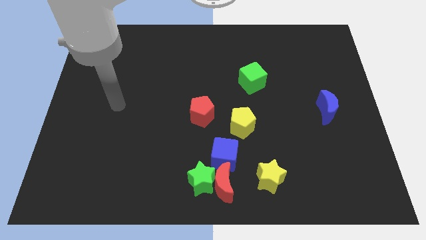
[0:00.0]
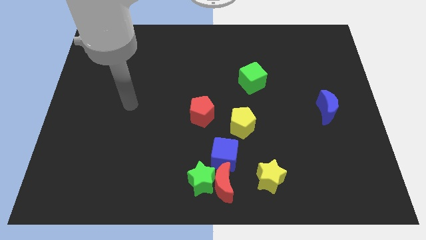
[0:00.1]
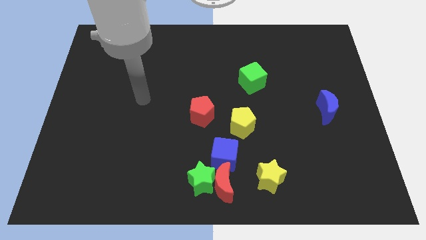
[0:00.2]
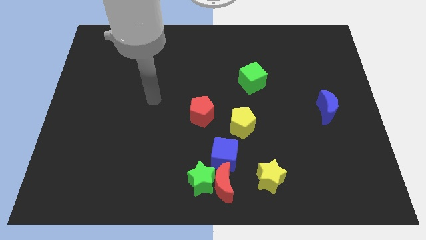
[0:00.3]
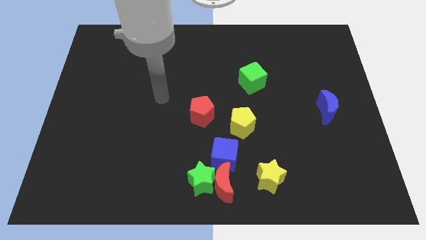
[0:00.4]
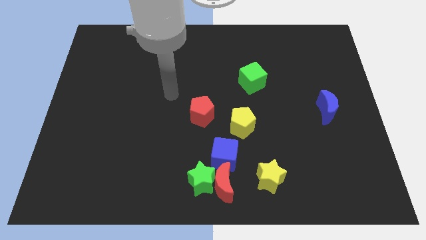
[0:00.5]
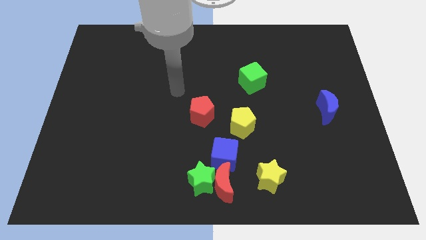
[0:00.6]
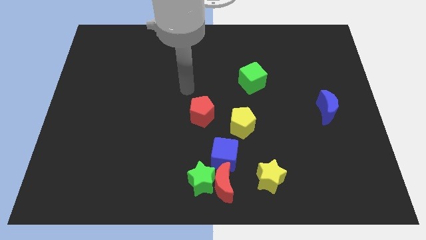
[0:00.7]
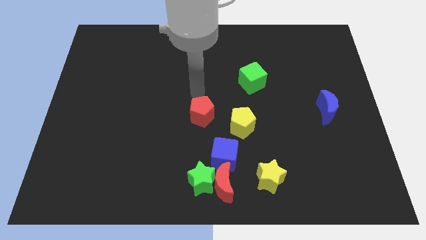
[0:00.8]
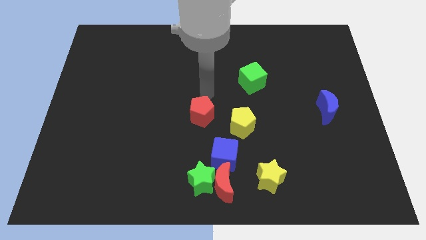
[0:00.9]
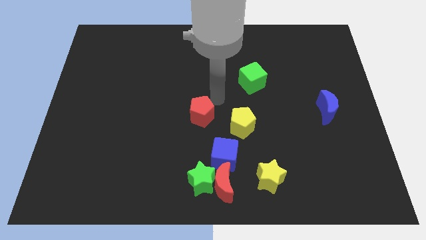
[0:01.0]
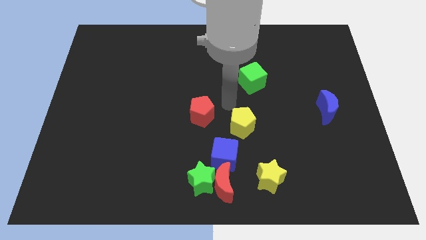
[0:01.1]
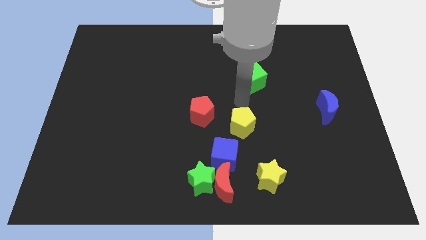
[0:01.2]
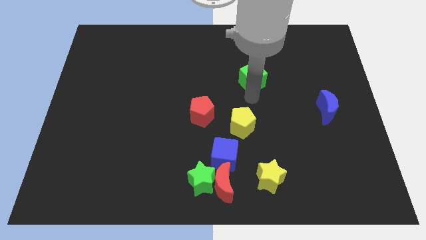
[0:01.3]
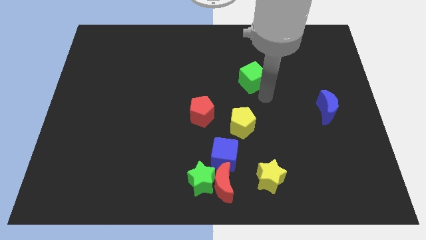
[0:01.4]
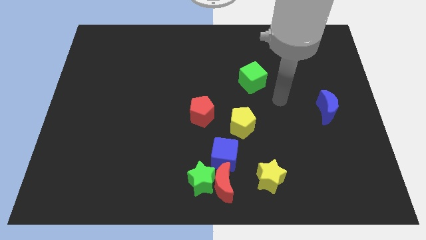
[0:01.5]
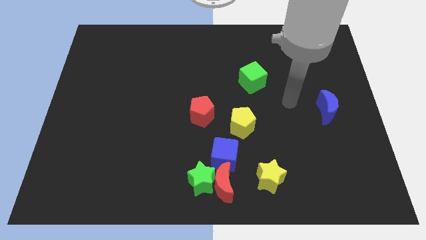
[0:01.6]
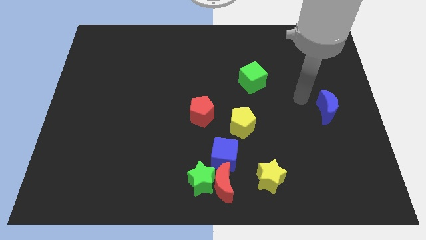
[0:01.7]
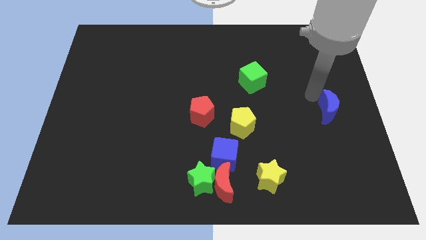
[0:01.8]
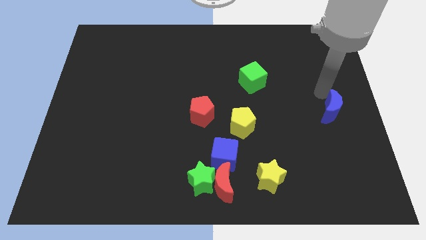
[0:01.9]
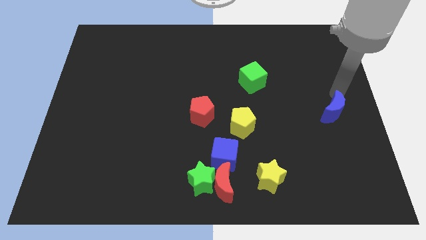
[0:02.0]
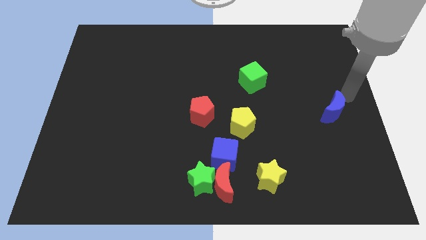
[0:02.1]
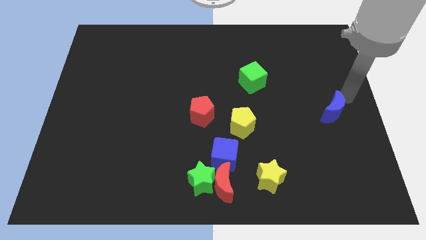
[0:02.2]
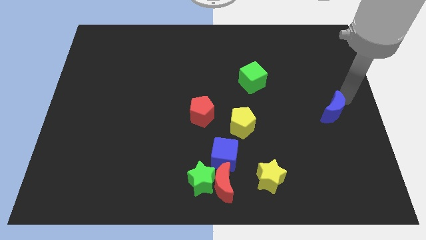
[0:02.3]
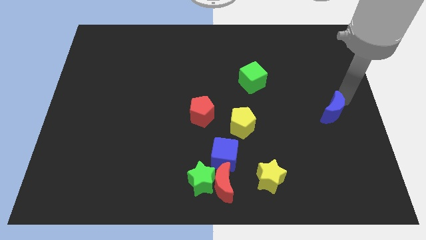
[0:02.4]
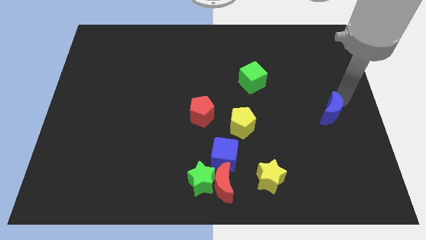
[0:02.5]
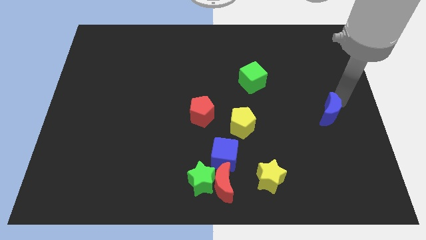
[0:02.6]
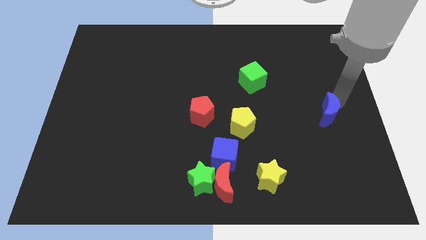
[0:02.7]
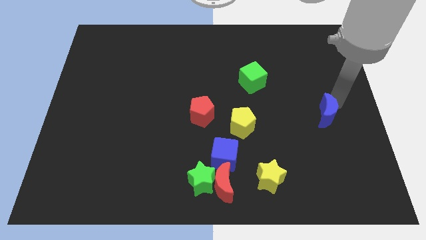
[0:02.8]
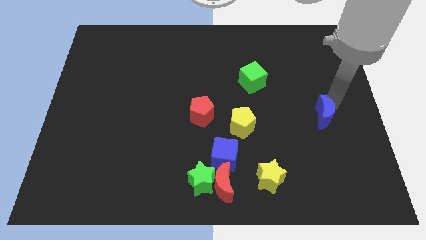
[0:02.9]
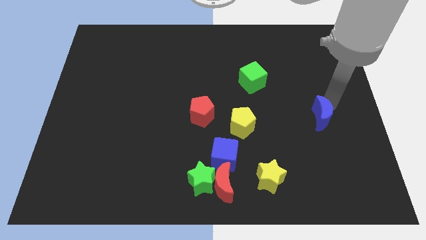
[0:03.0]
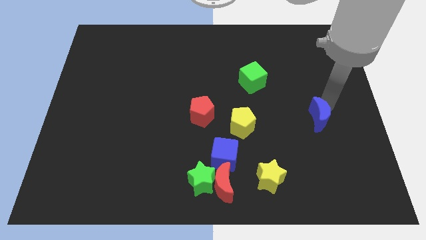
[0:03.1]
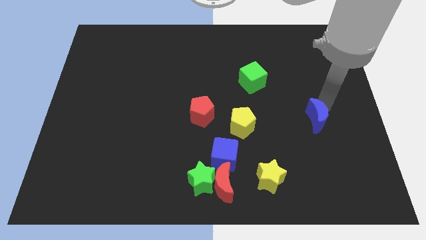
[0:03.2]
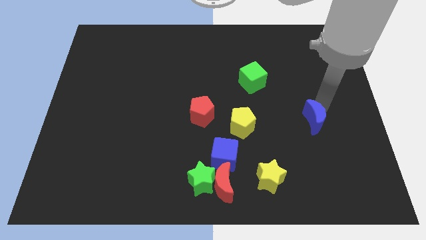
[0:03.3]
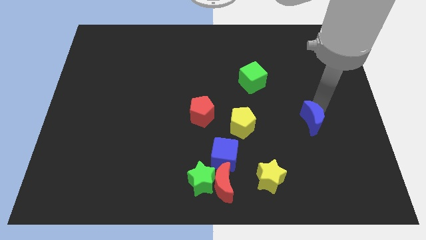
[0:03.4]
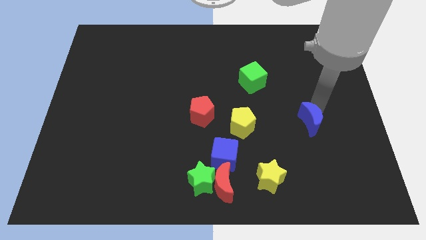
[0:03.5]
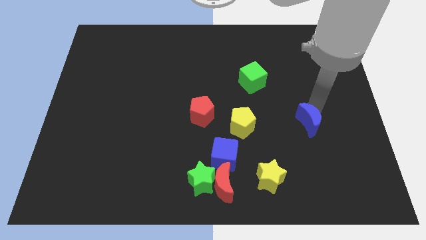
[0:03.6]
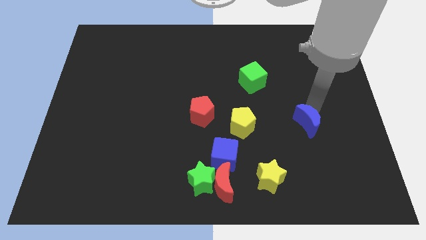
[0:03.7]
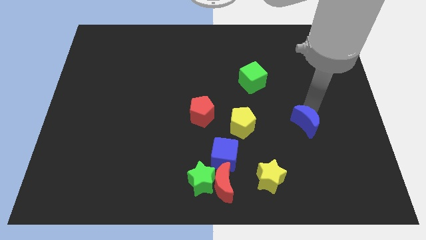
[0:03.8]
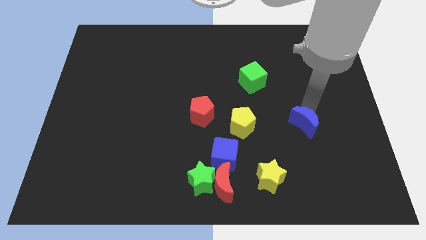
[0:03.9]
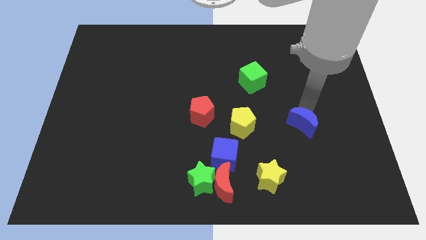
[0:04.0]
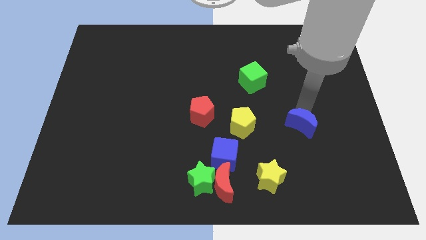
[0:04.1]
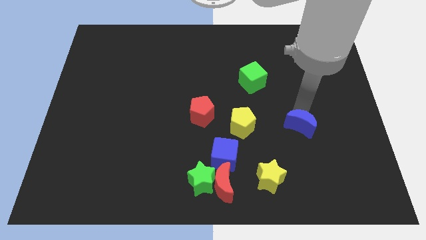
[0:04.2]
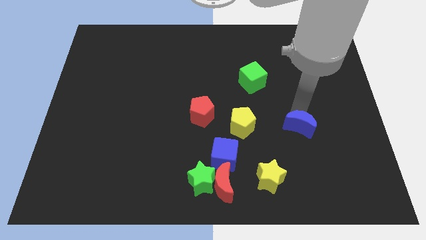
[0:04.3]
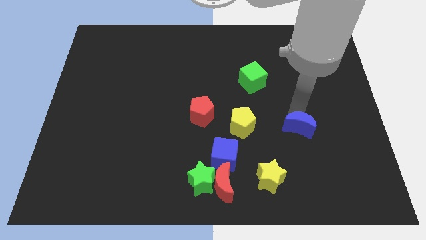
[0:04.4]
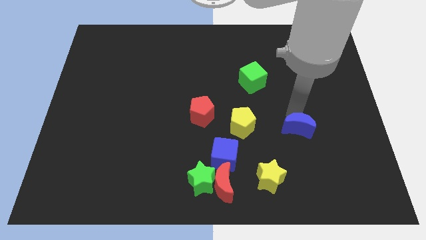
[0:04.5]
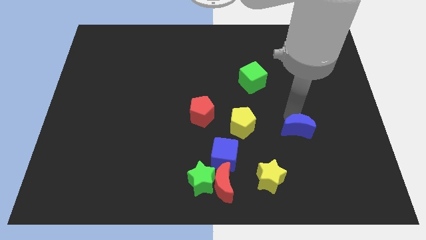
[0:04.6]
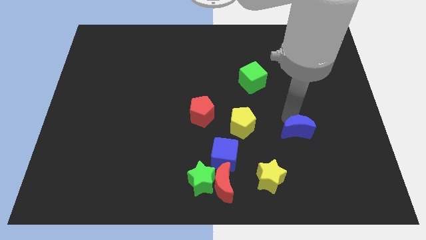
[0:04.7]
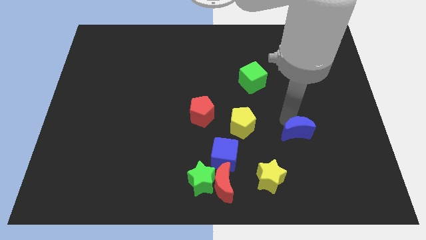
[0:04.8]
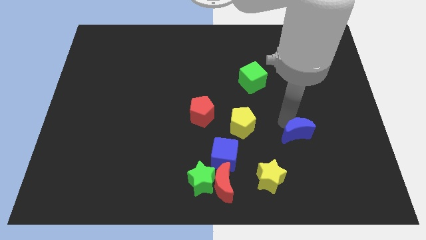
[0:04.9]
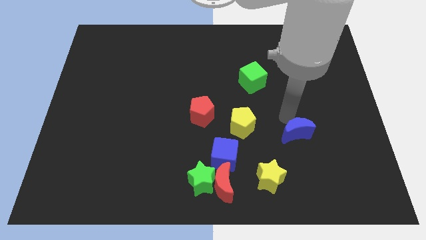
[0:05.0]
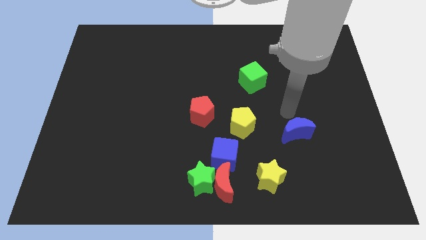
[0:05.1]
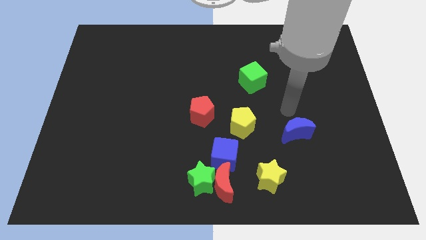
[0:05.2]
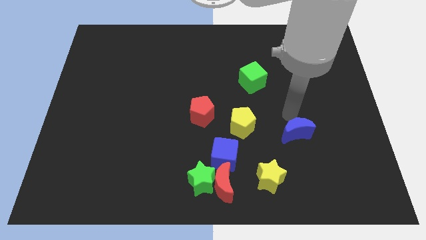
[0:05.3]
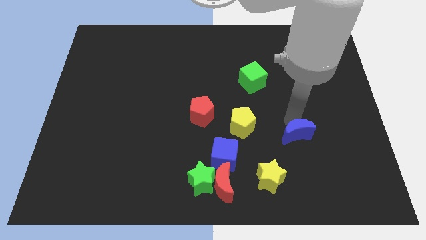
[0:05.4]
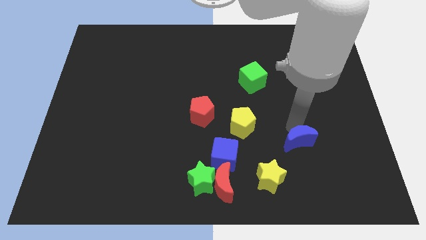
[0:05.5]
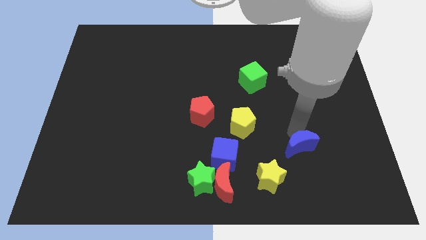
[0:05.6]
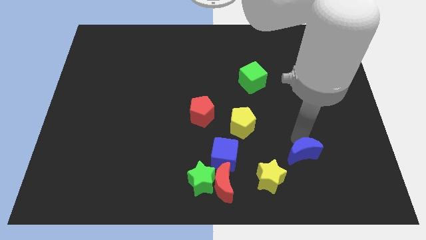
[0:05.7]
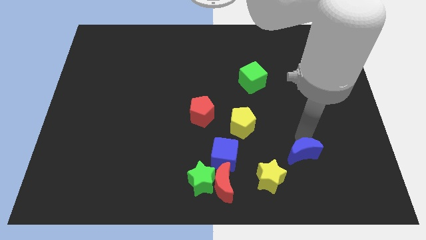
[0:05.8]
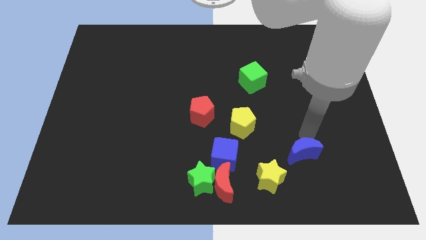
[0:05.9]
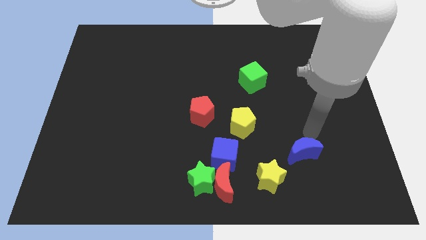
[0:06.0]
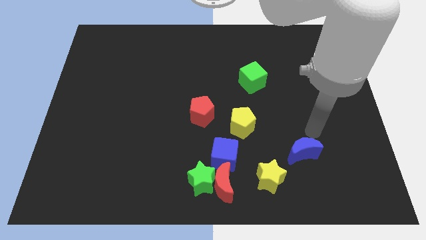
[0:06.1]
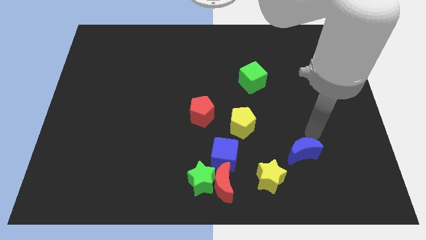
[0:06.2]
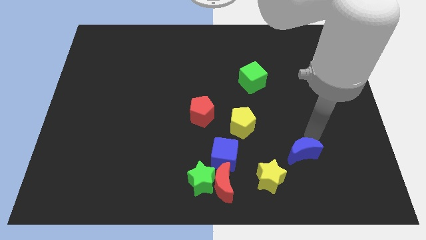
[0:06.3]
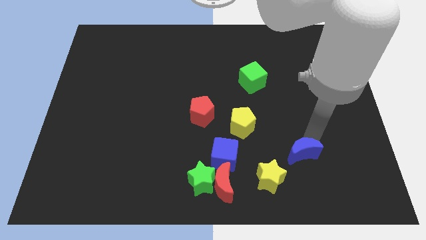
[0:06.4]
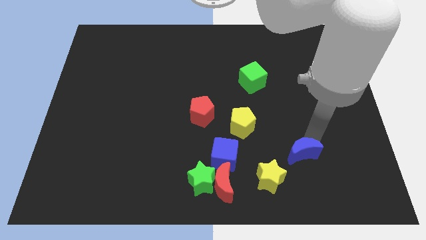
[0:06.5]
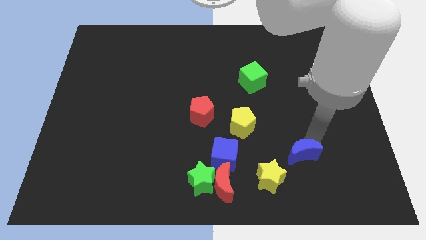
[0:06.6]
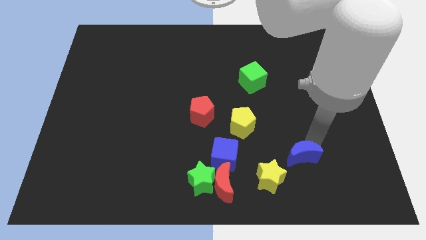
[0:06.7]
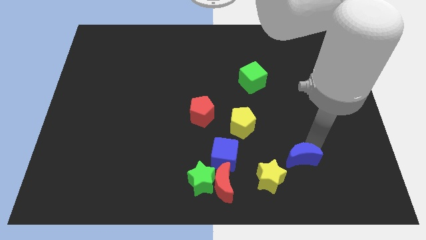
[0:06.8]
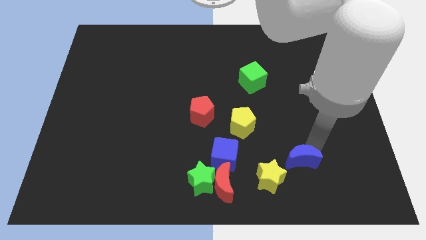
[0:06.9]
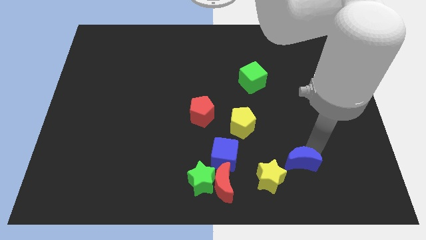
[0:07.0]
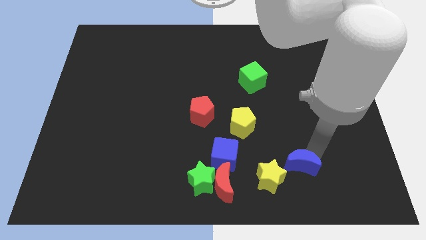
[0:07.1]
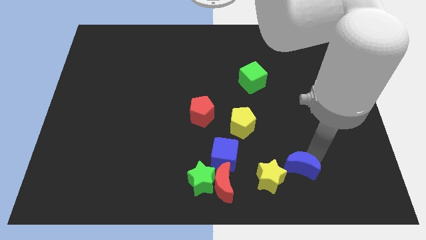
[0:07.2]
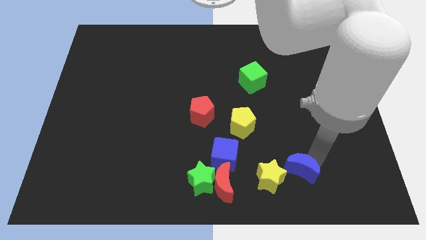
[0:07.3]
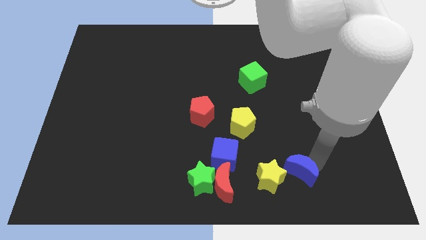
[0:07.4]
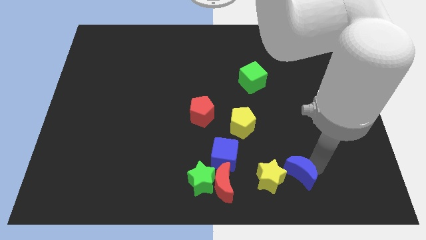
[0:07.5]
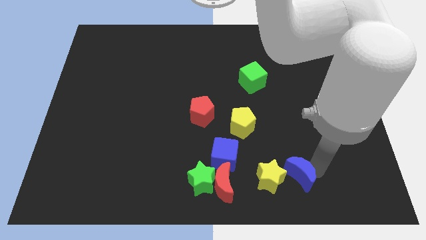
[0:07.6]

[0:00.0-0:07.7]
slide the blue moon to the yellow star
